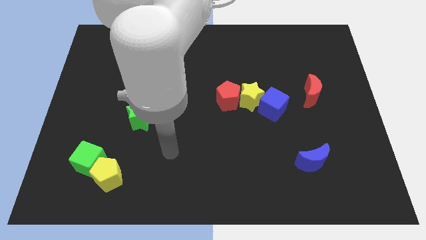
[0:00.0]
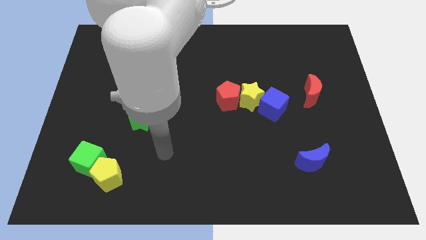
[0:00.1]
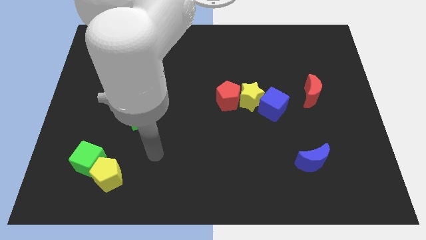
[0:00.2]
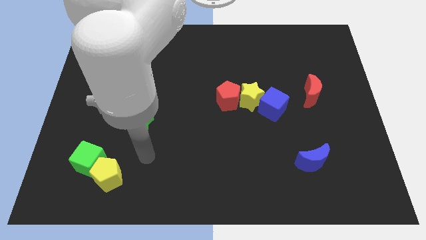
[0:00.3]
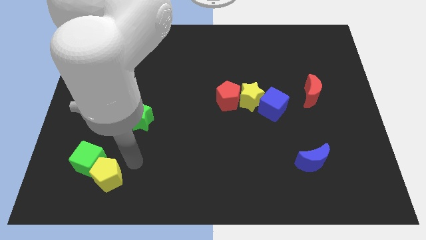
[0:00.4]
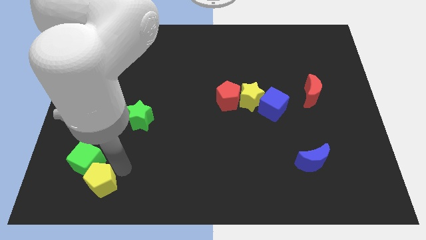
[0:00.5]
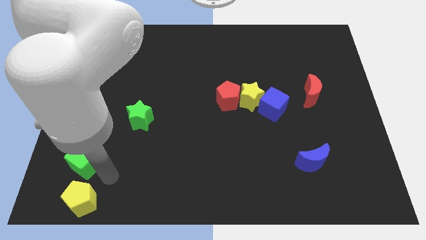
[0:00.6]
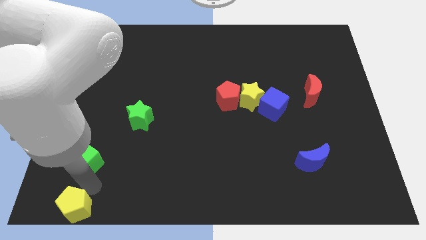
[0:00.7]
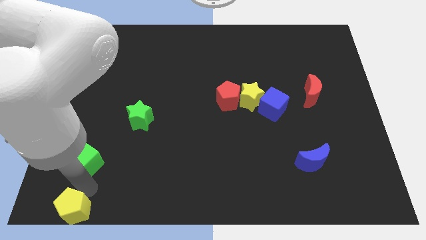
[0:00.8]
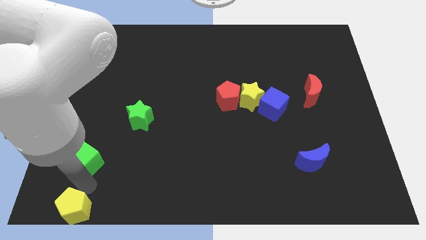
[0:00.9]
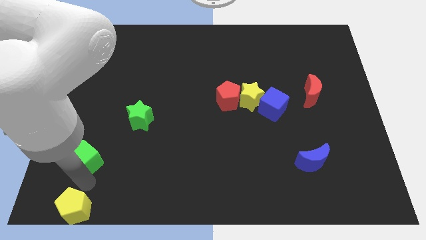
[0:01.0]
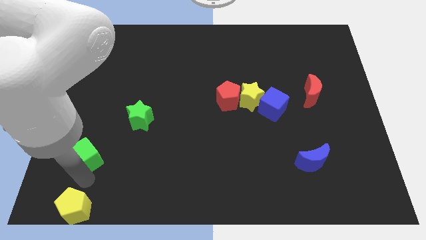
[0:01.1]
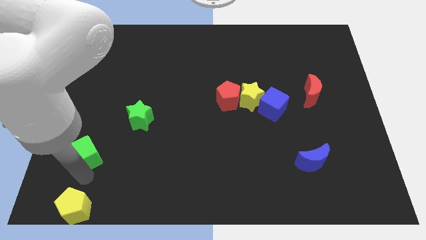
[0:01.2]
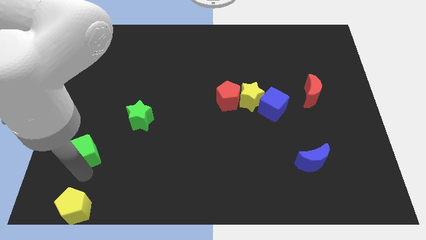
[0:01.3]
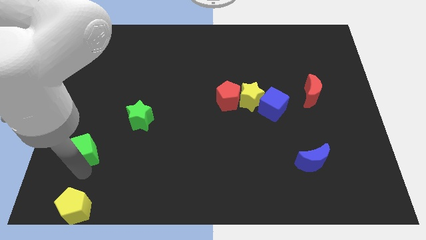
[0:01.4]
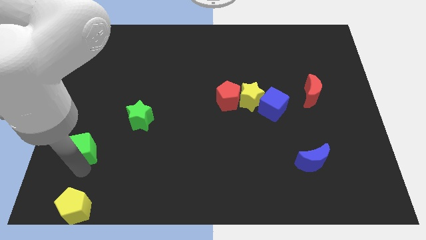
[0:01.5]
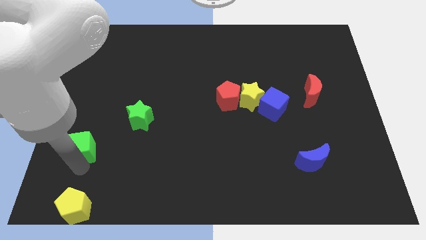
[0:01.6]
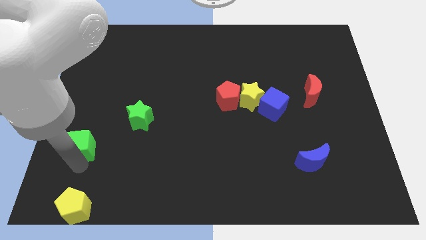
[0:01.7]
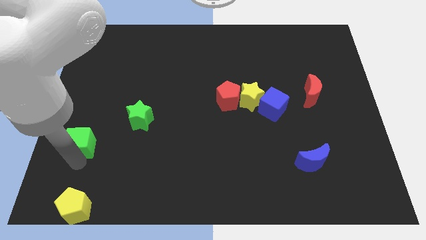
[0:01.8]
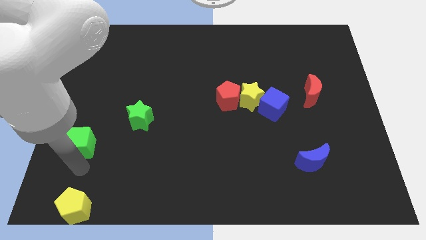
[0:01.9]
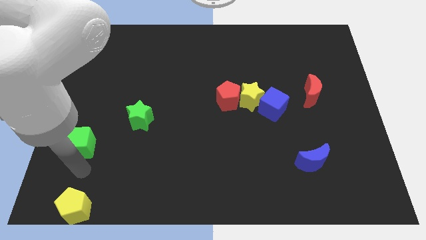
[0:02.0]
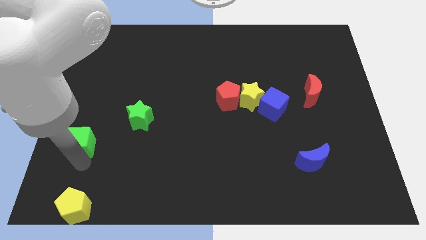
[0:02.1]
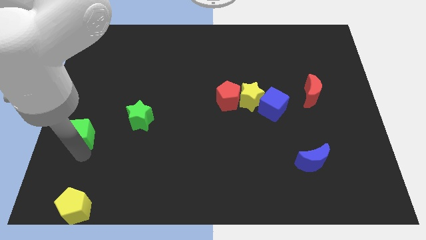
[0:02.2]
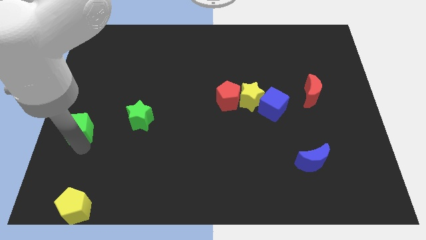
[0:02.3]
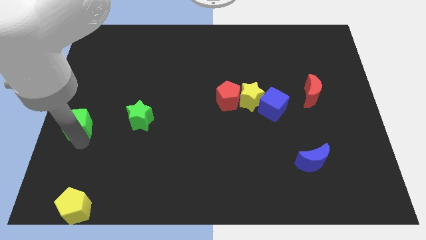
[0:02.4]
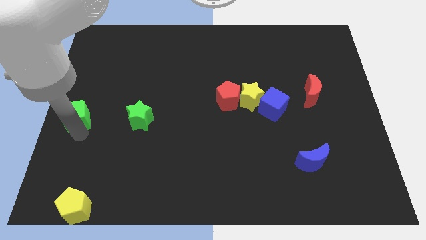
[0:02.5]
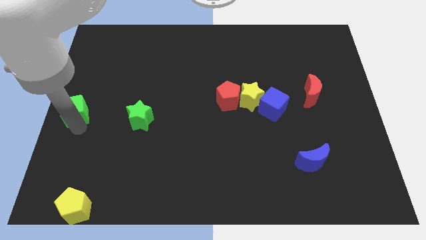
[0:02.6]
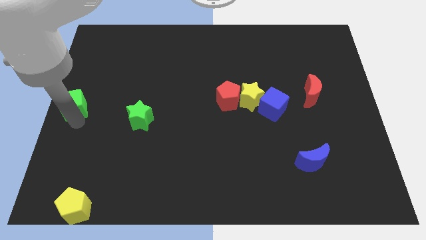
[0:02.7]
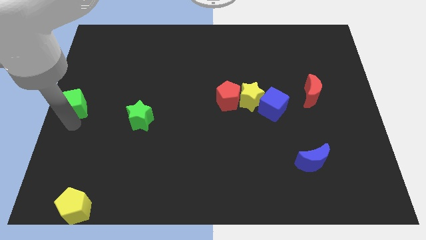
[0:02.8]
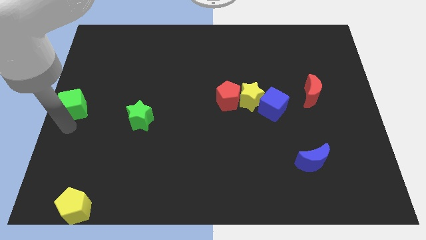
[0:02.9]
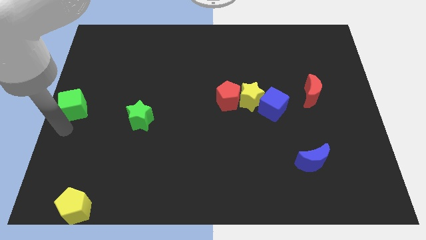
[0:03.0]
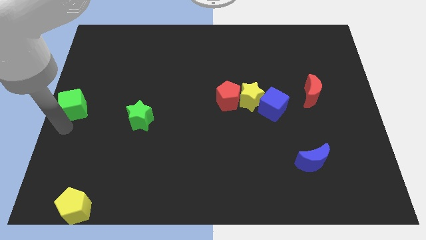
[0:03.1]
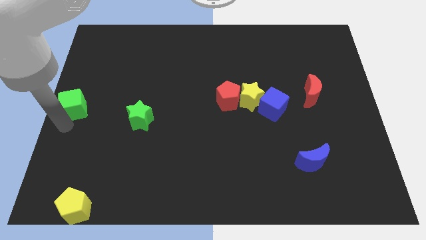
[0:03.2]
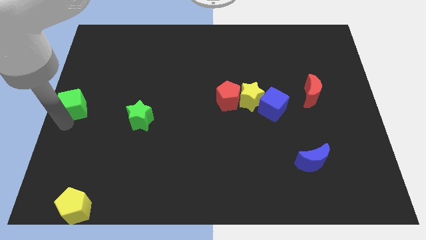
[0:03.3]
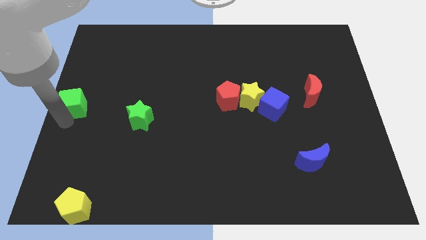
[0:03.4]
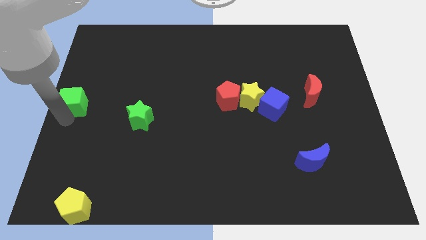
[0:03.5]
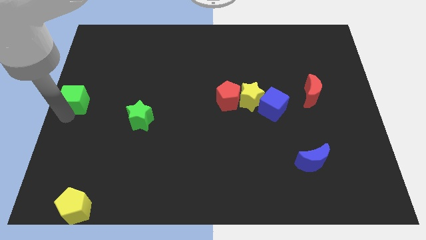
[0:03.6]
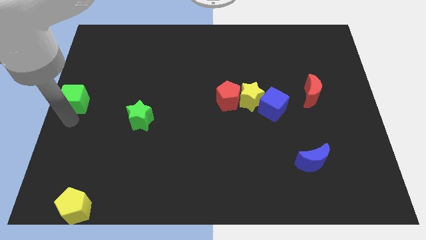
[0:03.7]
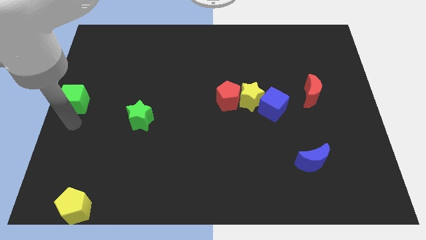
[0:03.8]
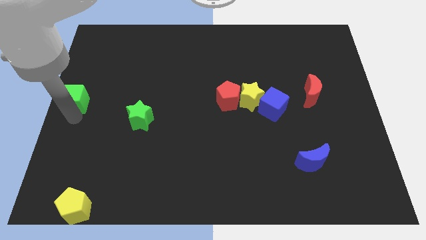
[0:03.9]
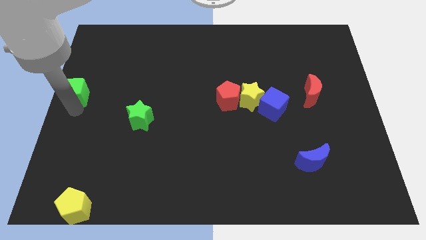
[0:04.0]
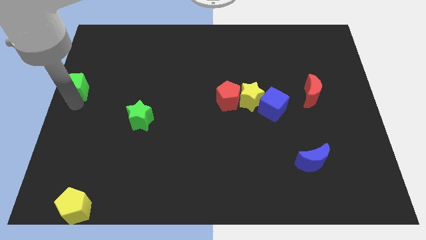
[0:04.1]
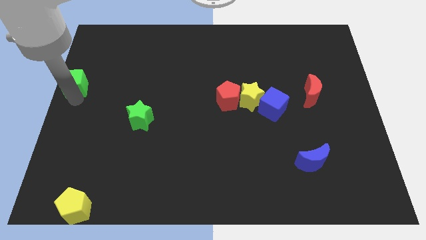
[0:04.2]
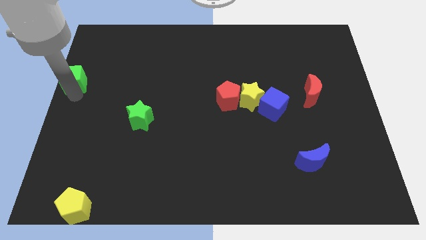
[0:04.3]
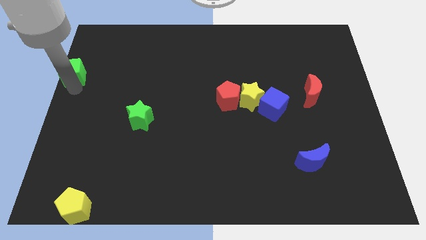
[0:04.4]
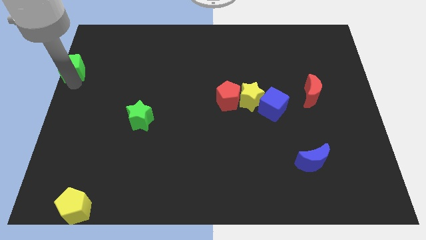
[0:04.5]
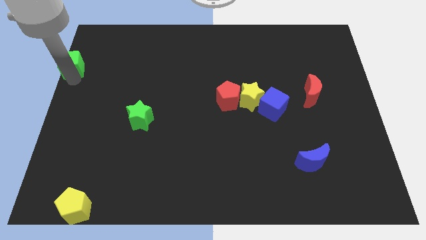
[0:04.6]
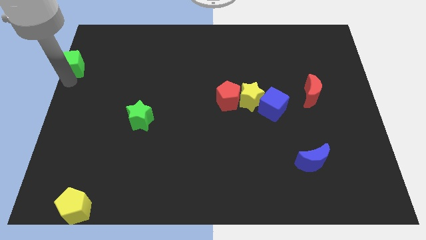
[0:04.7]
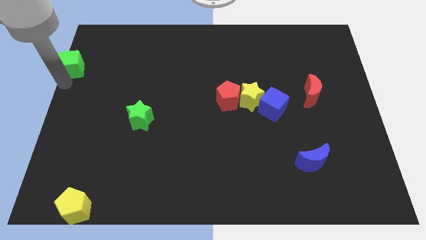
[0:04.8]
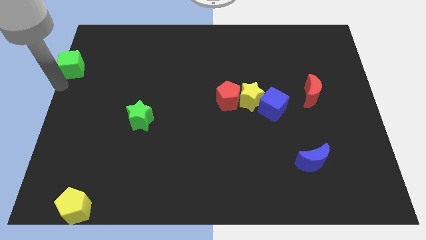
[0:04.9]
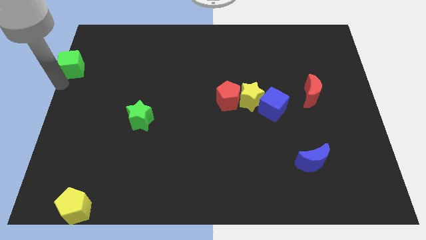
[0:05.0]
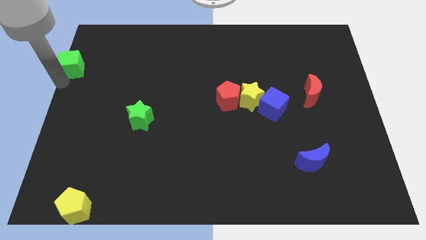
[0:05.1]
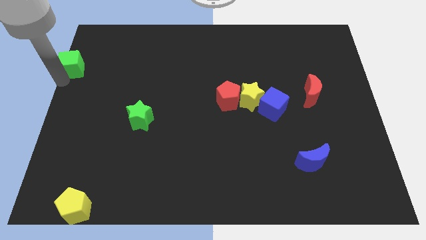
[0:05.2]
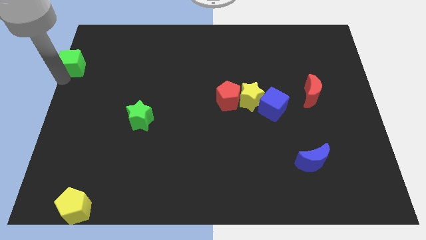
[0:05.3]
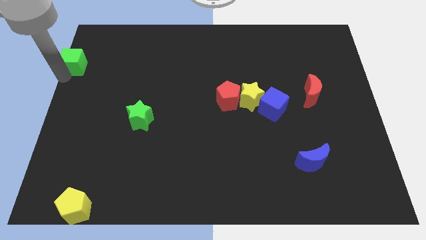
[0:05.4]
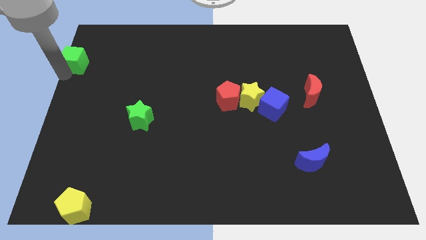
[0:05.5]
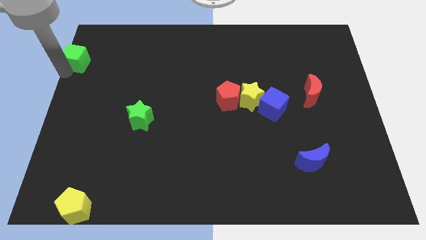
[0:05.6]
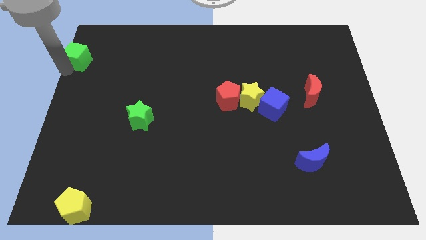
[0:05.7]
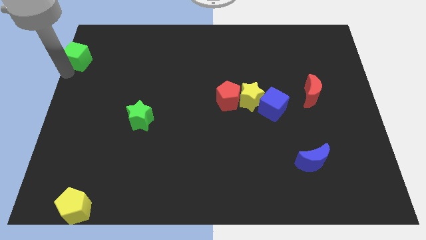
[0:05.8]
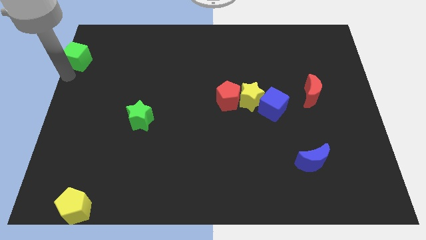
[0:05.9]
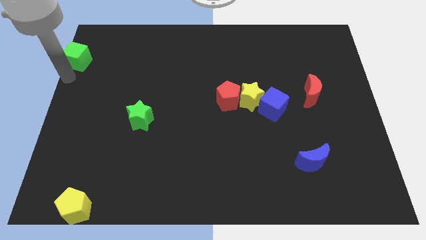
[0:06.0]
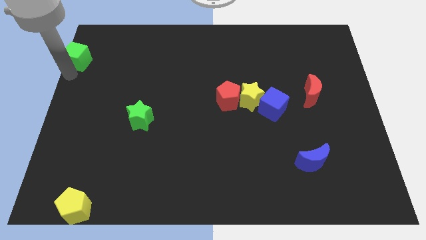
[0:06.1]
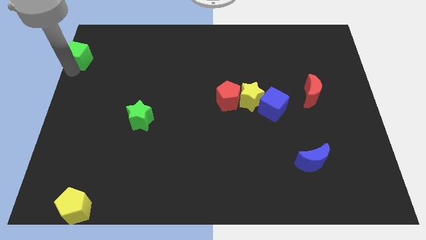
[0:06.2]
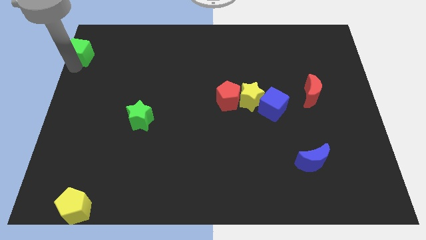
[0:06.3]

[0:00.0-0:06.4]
slide the green cube to the top left corner

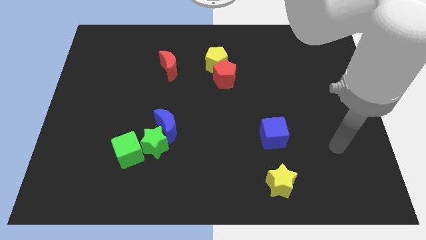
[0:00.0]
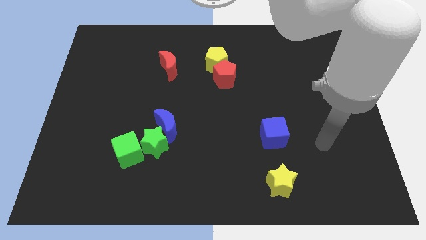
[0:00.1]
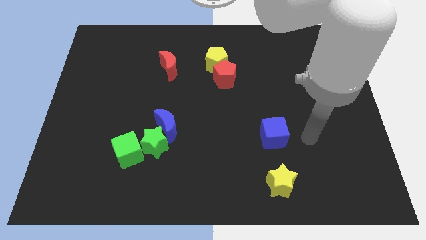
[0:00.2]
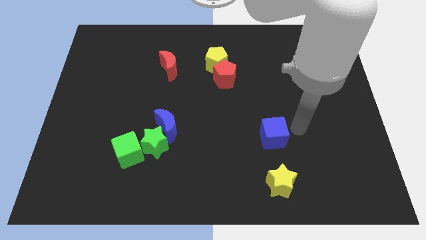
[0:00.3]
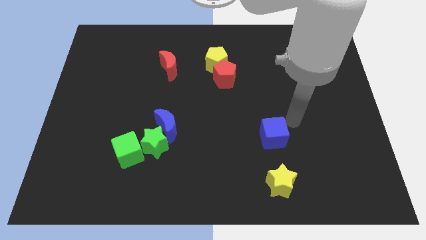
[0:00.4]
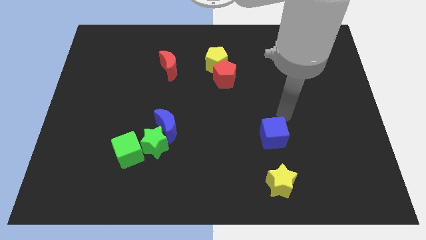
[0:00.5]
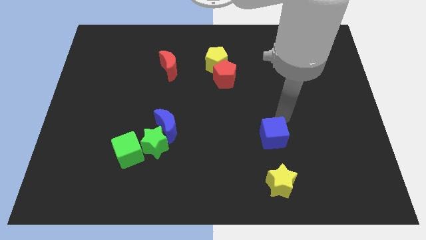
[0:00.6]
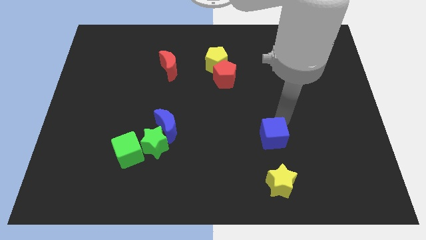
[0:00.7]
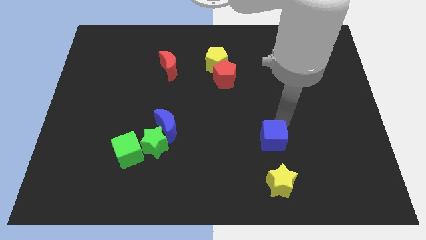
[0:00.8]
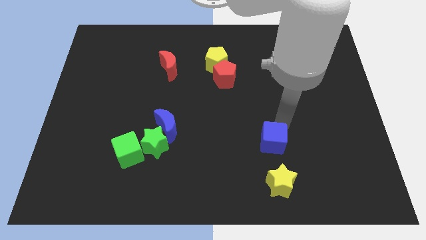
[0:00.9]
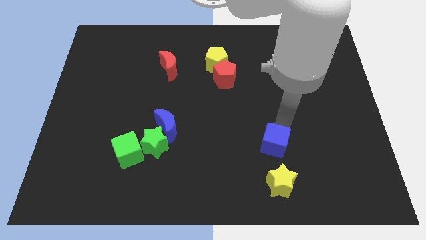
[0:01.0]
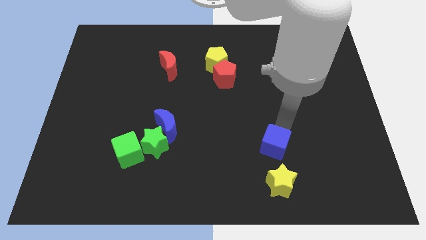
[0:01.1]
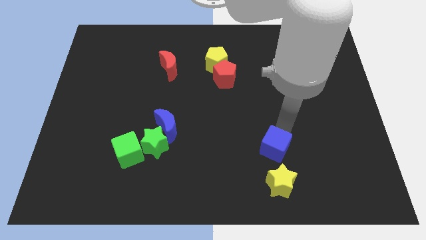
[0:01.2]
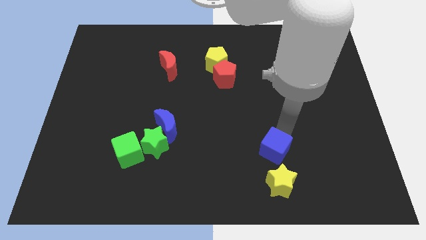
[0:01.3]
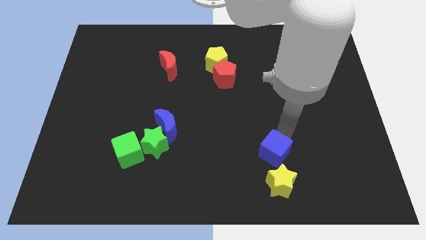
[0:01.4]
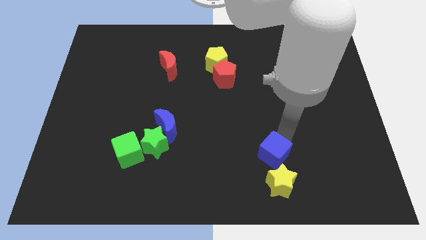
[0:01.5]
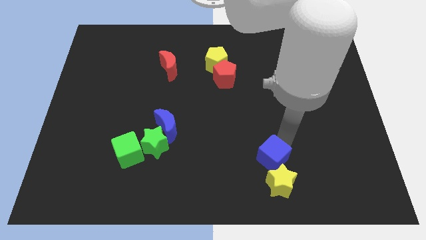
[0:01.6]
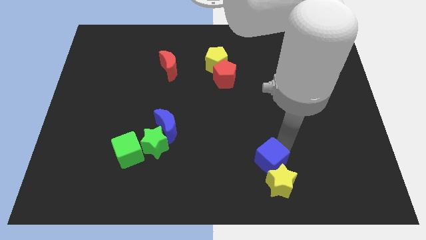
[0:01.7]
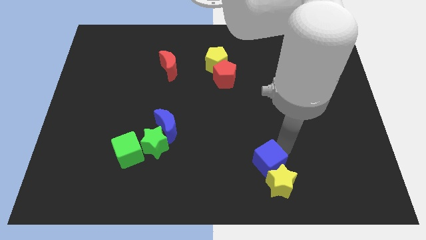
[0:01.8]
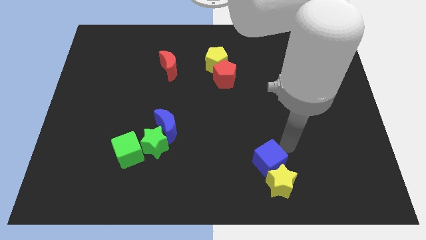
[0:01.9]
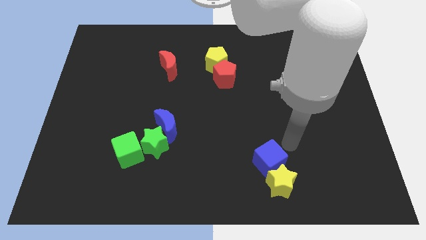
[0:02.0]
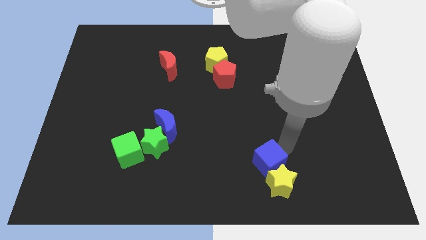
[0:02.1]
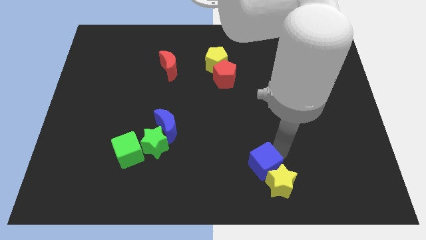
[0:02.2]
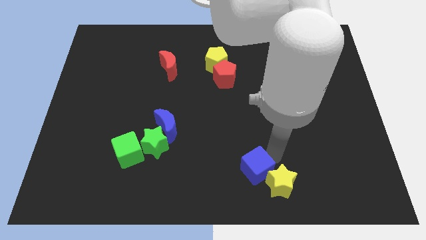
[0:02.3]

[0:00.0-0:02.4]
move the blue cube to the bottom side
